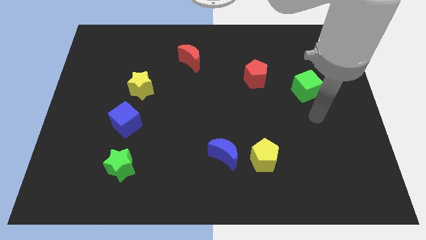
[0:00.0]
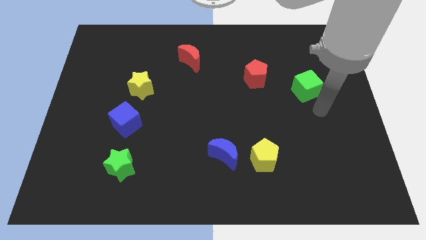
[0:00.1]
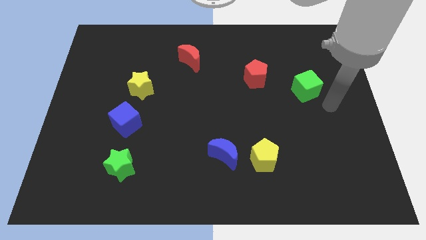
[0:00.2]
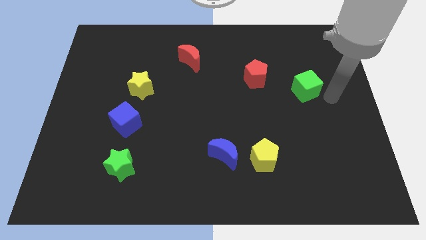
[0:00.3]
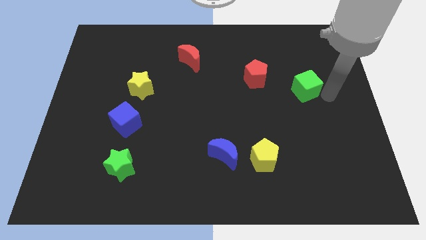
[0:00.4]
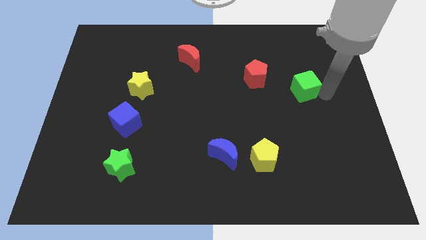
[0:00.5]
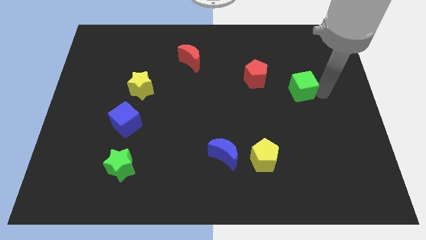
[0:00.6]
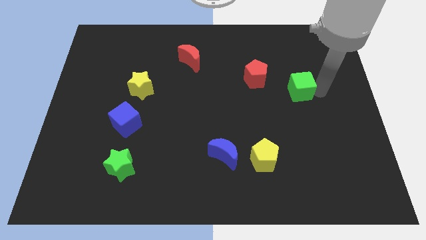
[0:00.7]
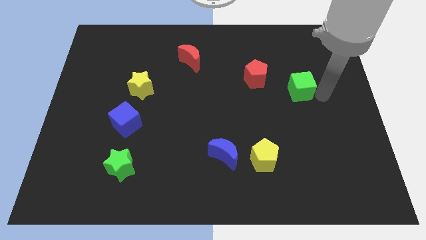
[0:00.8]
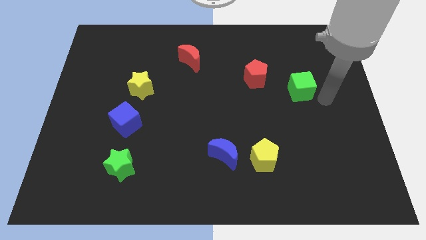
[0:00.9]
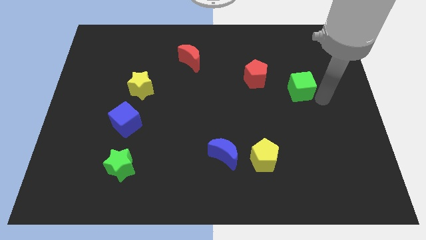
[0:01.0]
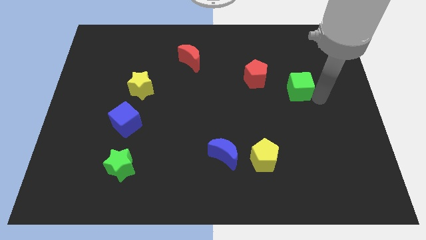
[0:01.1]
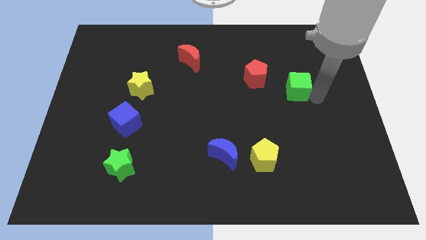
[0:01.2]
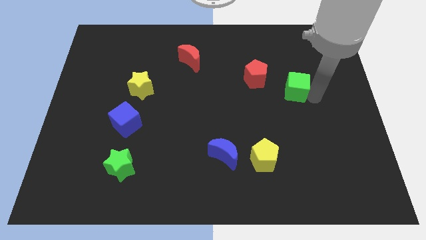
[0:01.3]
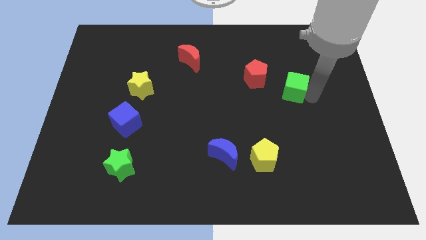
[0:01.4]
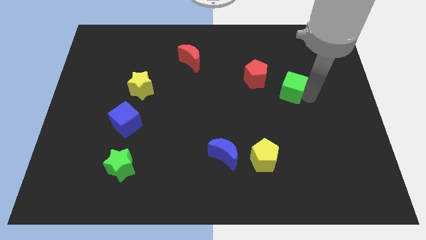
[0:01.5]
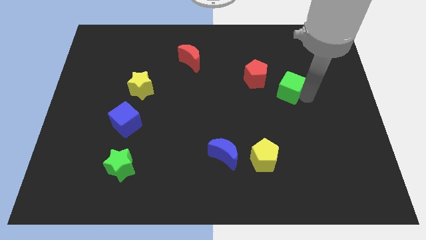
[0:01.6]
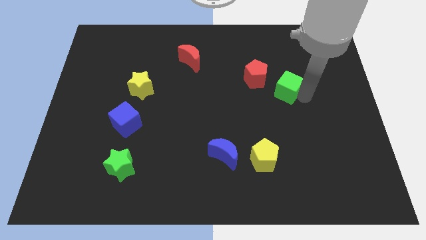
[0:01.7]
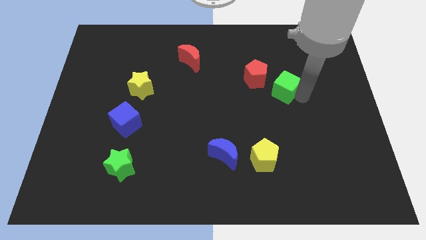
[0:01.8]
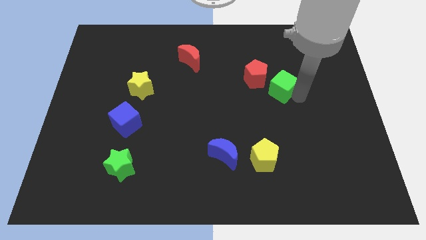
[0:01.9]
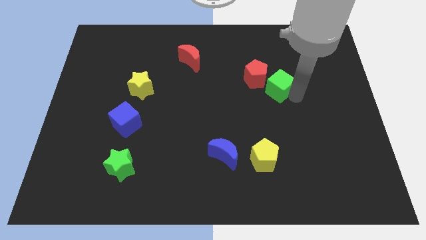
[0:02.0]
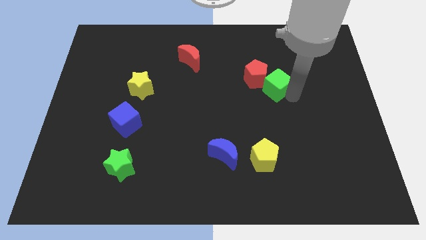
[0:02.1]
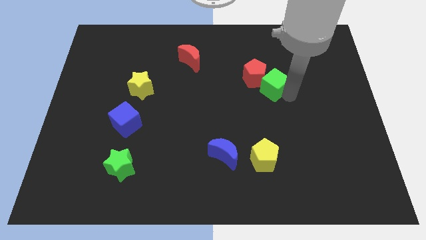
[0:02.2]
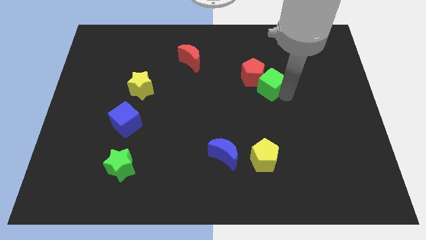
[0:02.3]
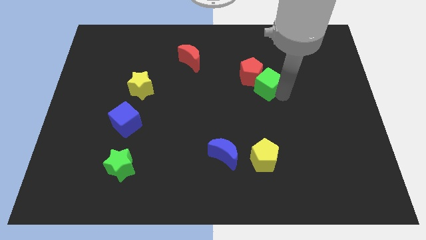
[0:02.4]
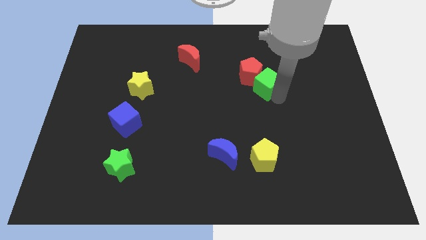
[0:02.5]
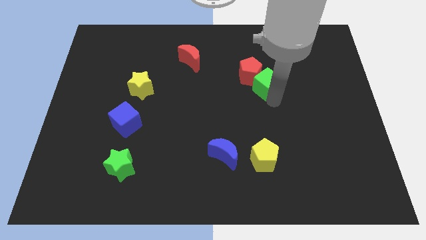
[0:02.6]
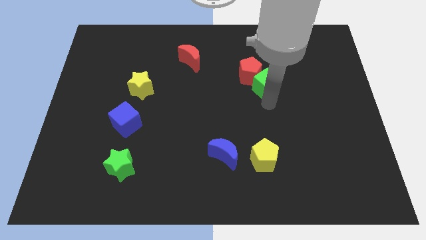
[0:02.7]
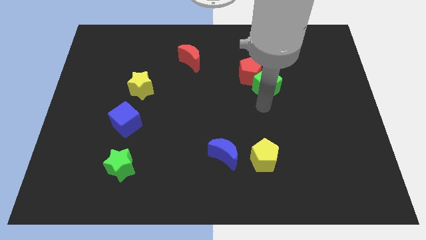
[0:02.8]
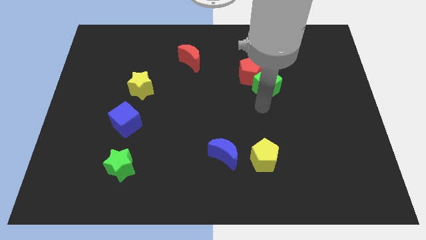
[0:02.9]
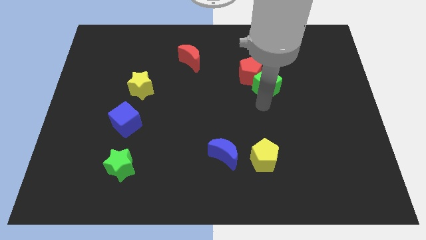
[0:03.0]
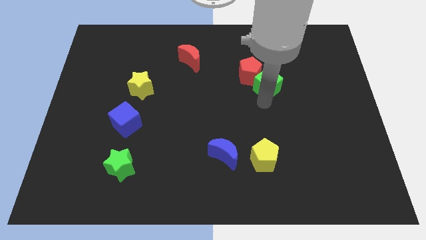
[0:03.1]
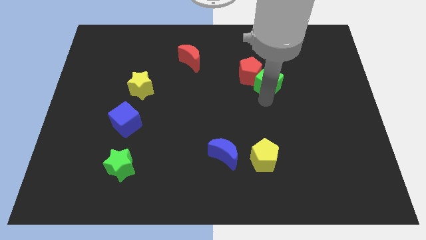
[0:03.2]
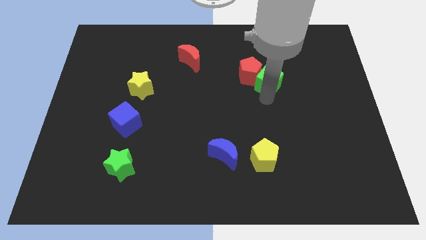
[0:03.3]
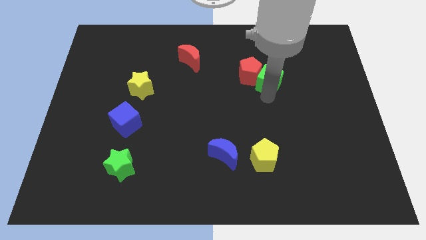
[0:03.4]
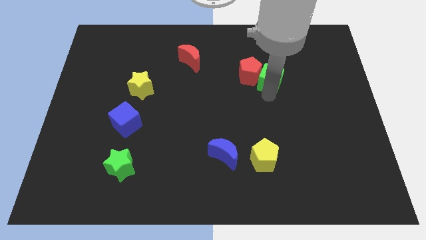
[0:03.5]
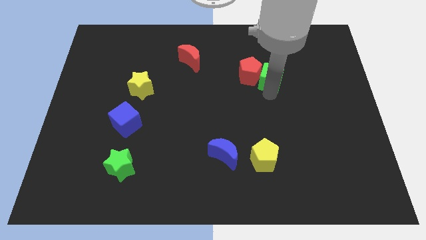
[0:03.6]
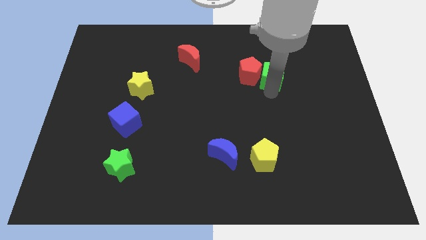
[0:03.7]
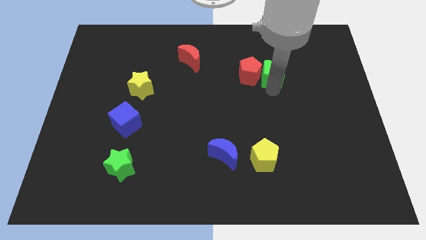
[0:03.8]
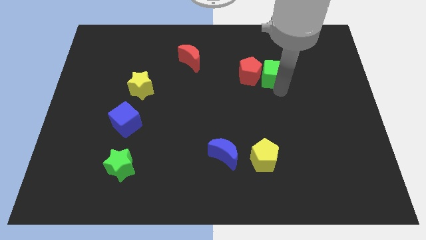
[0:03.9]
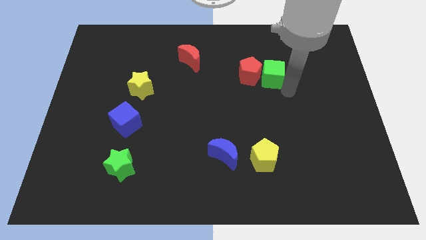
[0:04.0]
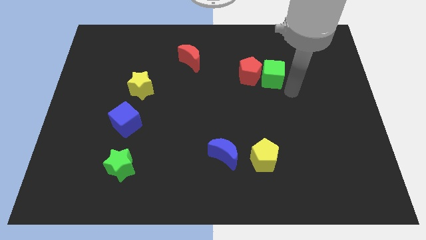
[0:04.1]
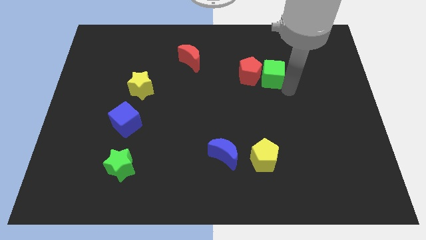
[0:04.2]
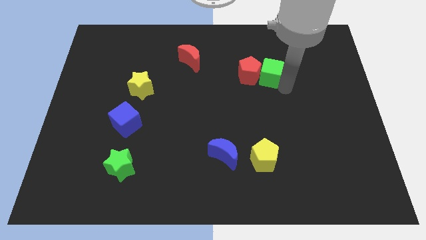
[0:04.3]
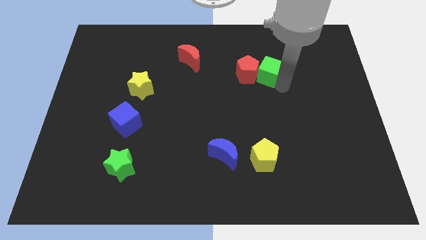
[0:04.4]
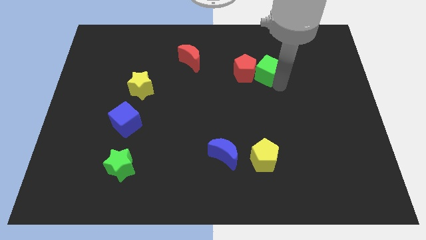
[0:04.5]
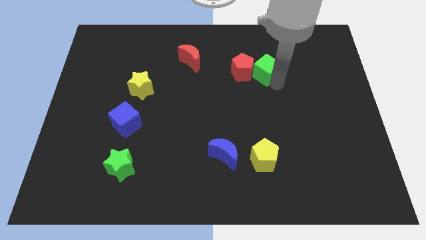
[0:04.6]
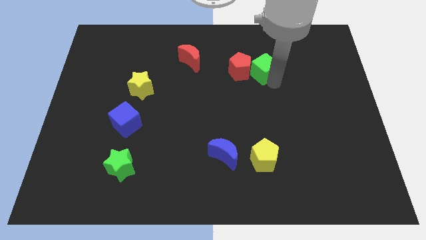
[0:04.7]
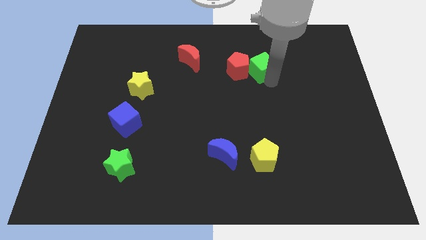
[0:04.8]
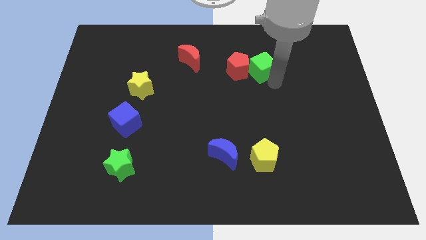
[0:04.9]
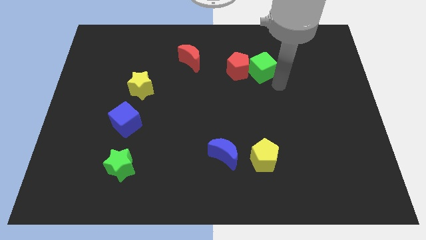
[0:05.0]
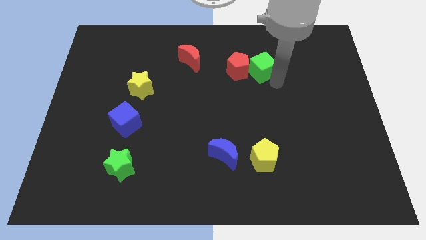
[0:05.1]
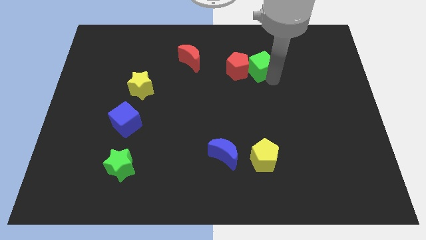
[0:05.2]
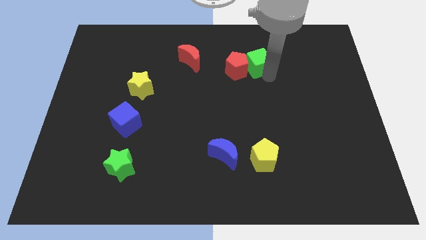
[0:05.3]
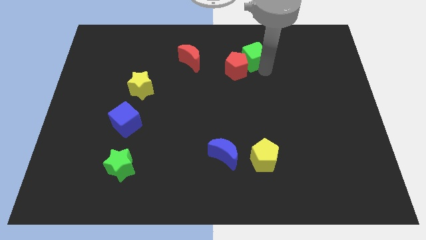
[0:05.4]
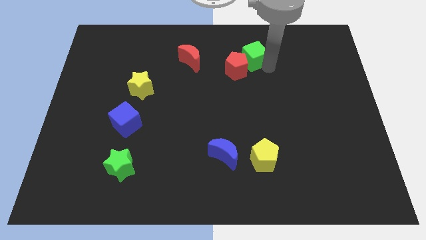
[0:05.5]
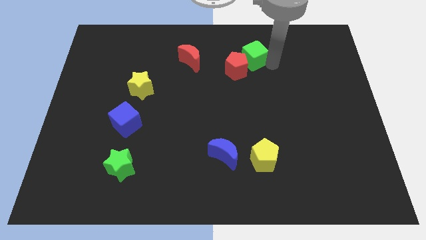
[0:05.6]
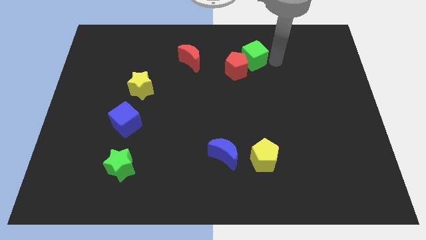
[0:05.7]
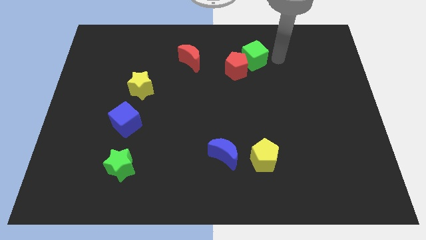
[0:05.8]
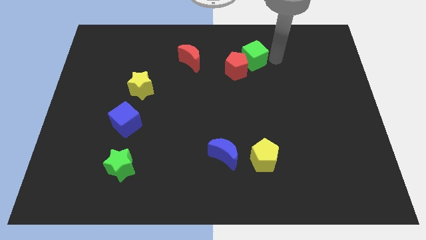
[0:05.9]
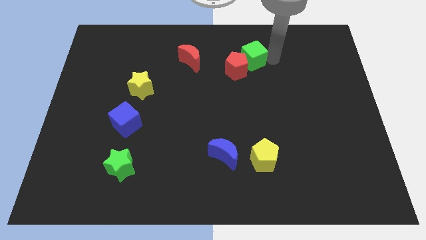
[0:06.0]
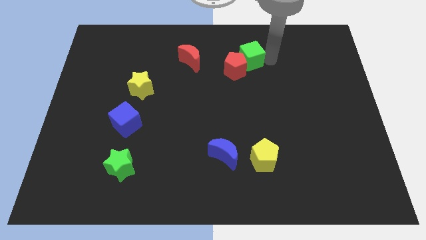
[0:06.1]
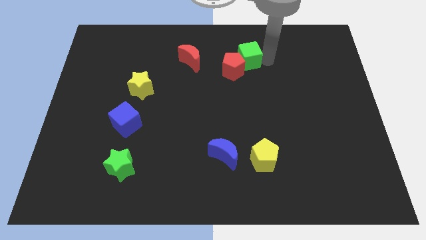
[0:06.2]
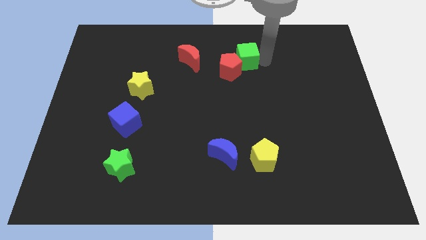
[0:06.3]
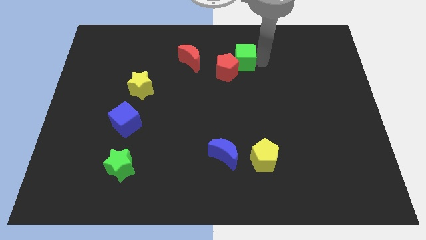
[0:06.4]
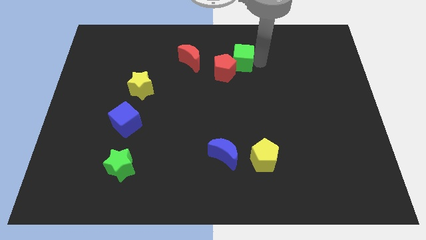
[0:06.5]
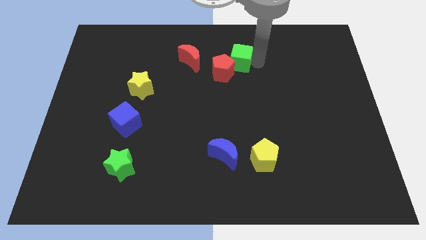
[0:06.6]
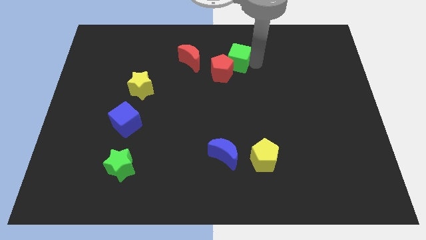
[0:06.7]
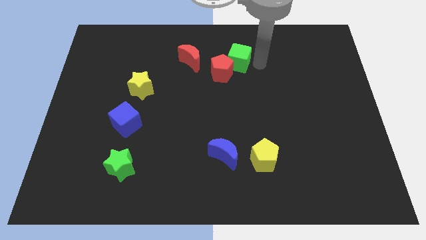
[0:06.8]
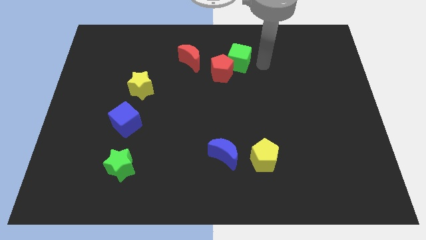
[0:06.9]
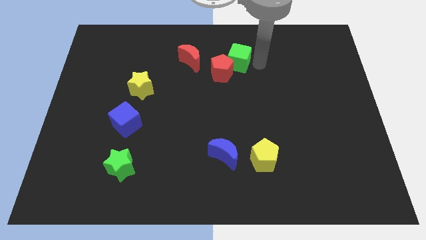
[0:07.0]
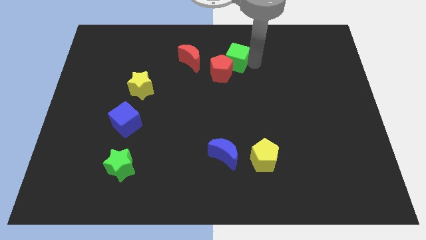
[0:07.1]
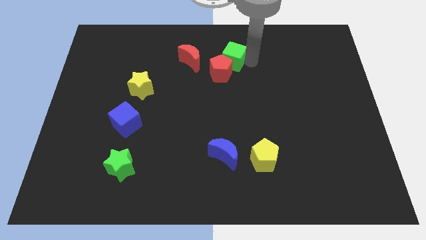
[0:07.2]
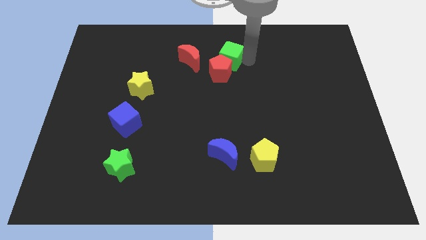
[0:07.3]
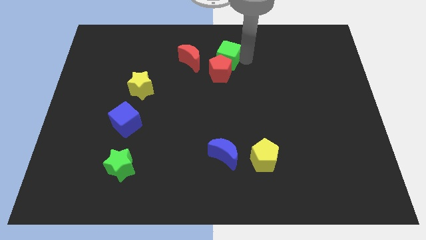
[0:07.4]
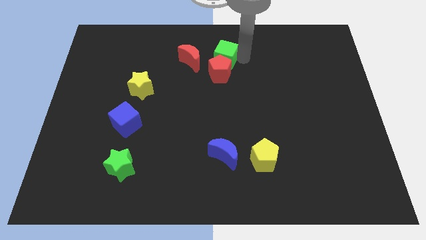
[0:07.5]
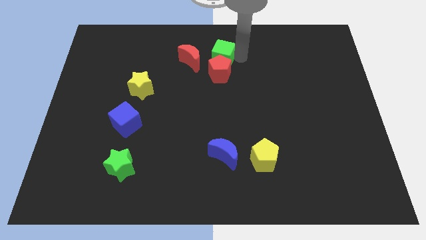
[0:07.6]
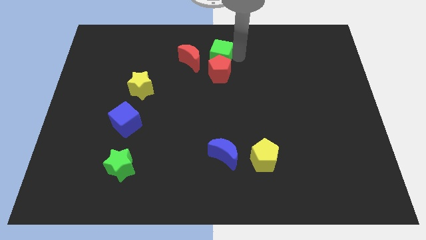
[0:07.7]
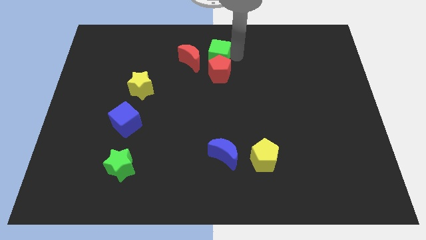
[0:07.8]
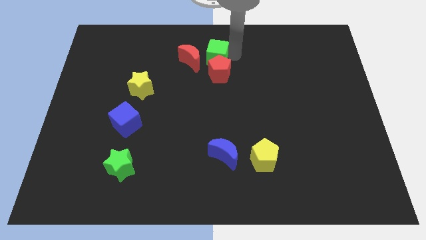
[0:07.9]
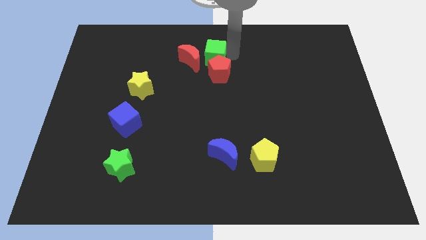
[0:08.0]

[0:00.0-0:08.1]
slide the green cube close to the red moon
